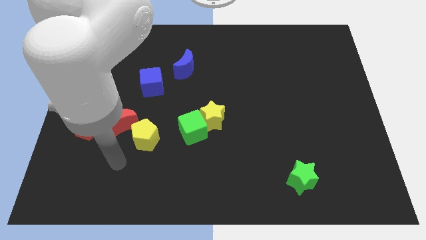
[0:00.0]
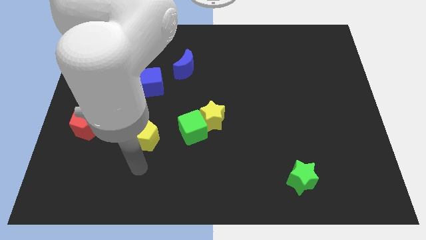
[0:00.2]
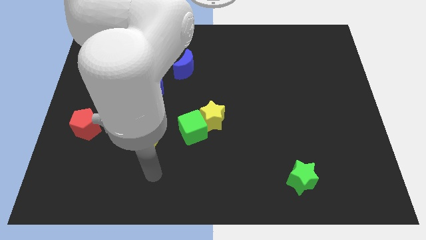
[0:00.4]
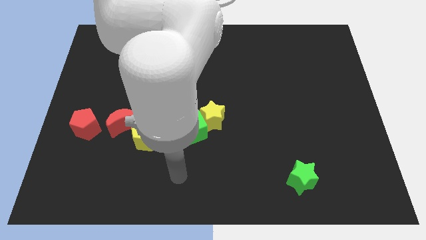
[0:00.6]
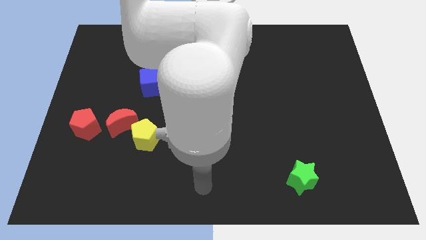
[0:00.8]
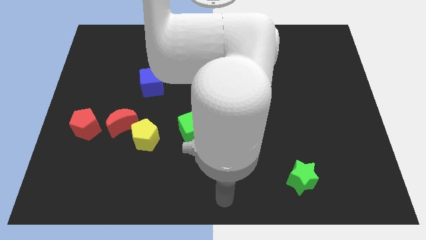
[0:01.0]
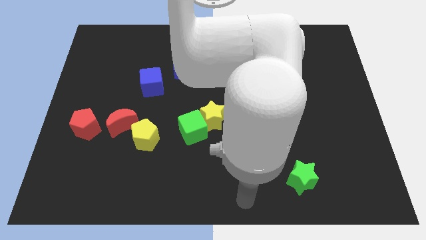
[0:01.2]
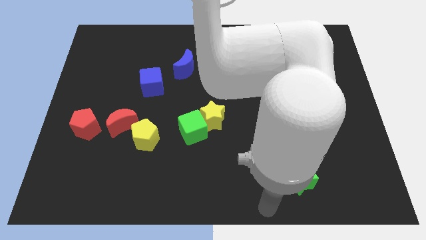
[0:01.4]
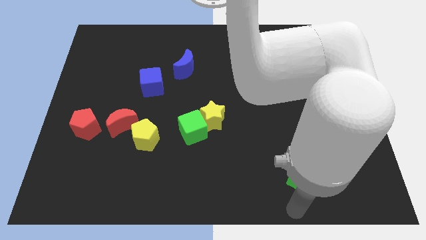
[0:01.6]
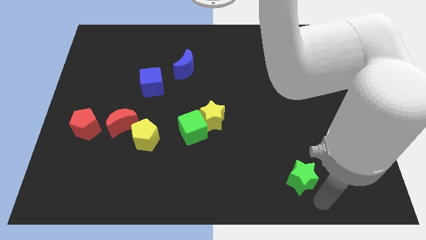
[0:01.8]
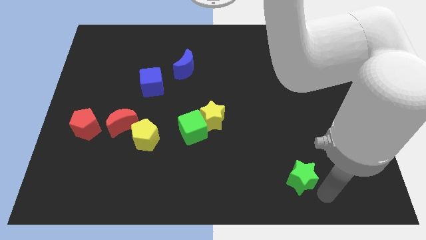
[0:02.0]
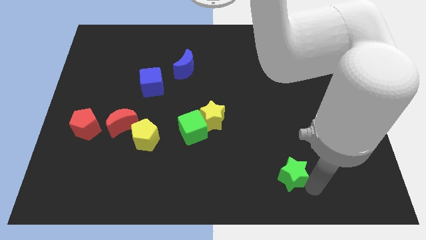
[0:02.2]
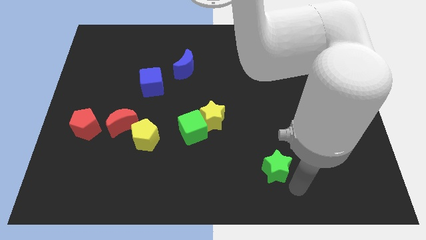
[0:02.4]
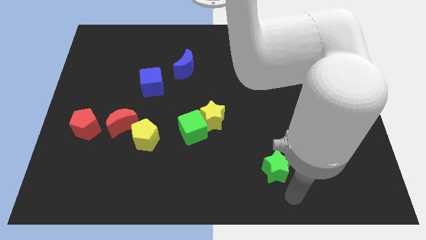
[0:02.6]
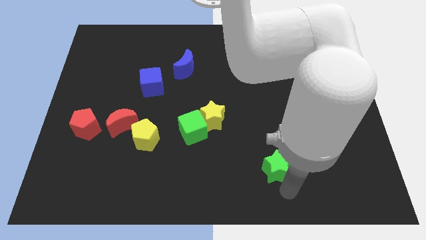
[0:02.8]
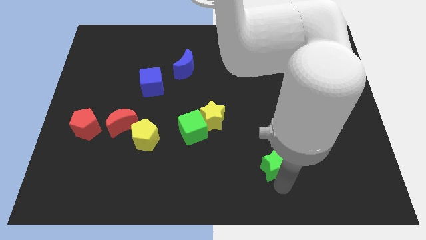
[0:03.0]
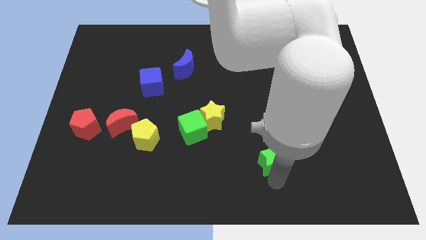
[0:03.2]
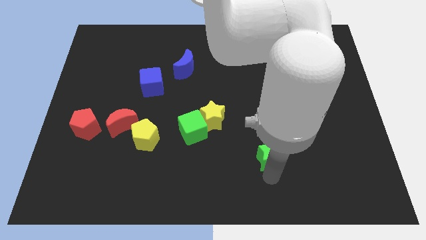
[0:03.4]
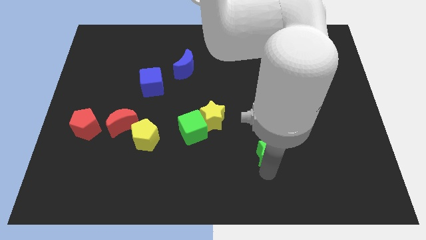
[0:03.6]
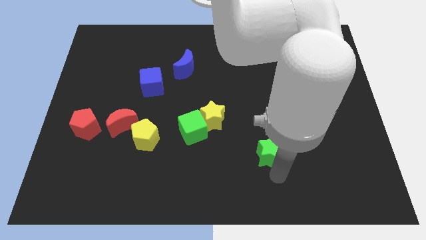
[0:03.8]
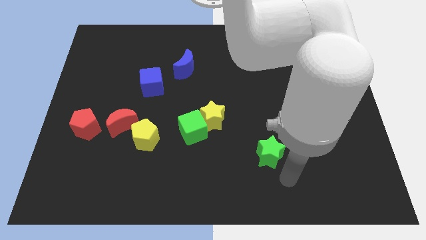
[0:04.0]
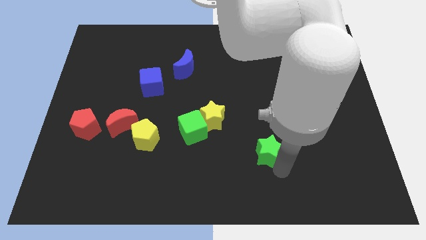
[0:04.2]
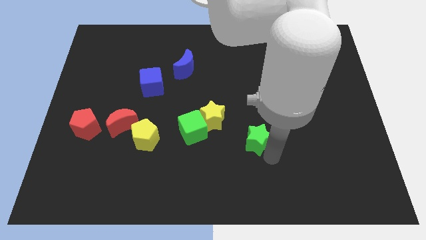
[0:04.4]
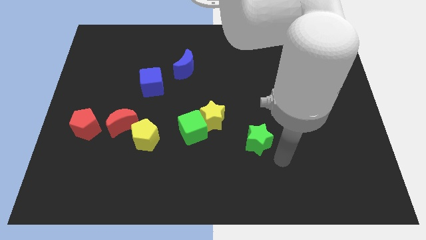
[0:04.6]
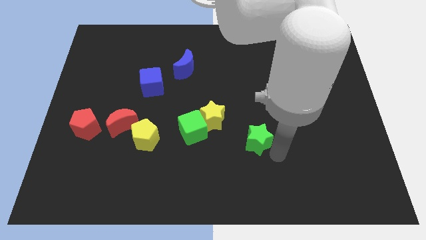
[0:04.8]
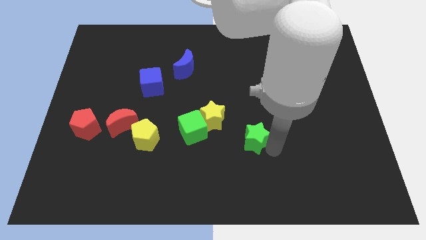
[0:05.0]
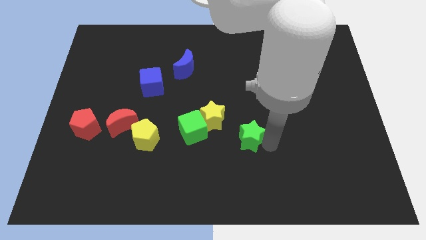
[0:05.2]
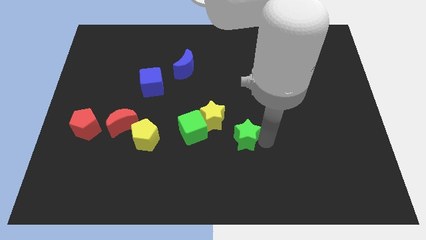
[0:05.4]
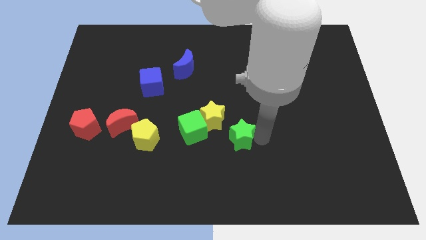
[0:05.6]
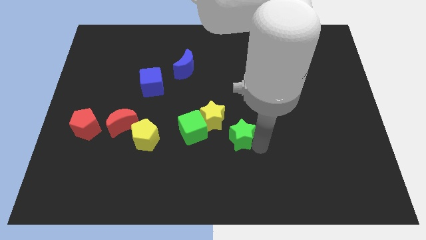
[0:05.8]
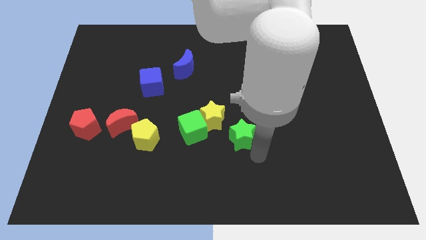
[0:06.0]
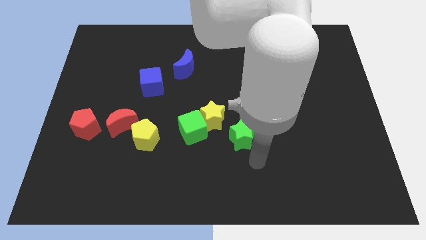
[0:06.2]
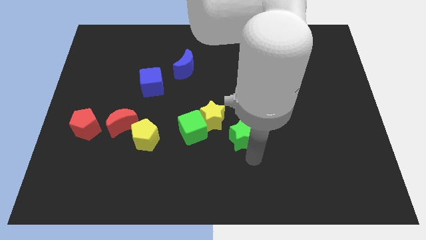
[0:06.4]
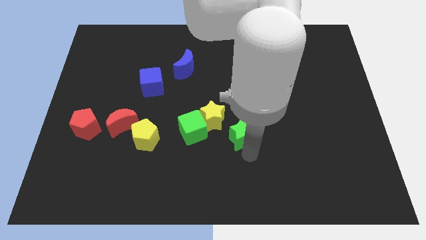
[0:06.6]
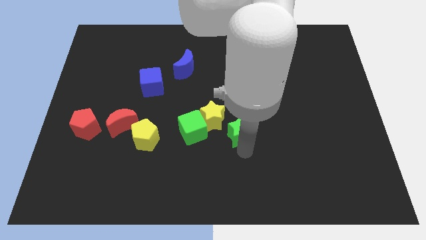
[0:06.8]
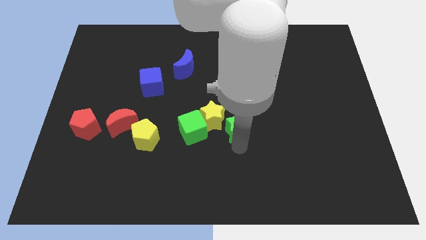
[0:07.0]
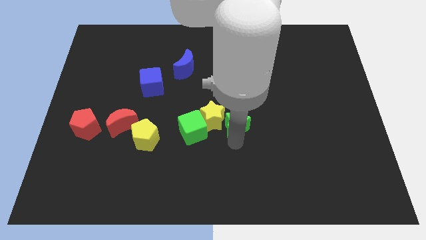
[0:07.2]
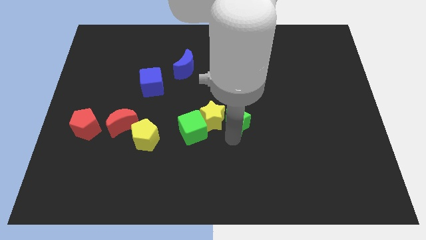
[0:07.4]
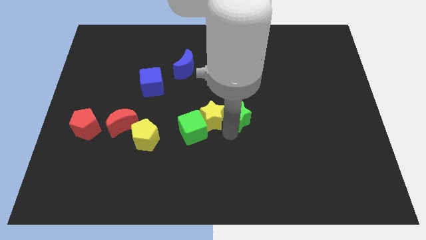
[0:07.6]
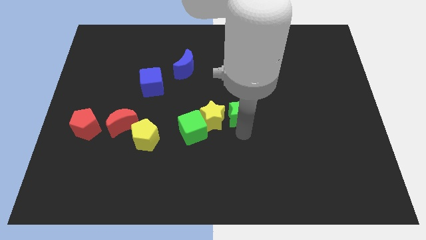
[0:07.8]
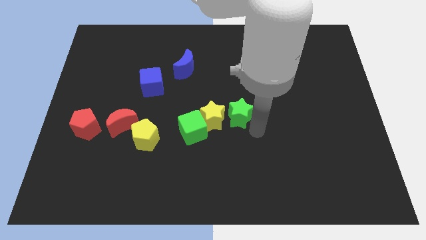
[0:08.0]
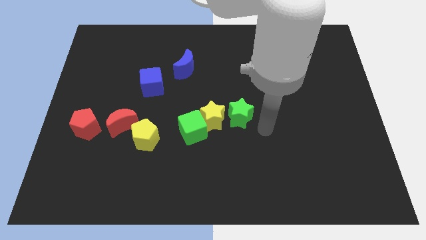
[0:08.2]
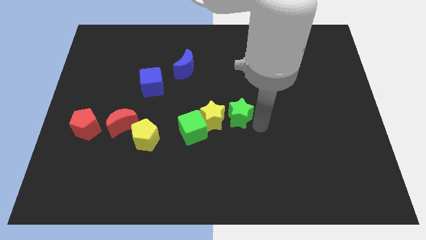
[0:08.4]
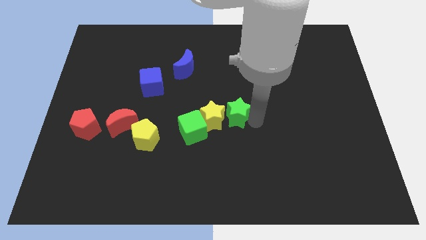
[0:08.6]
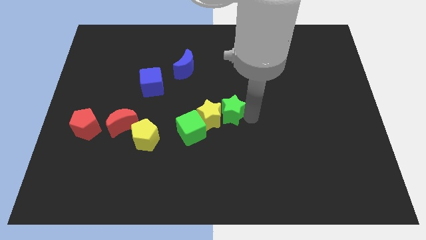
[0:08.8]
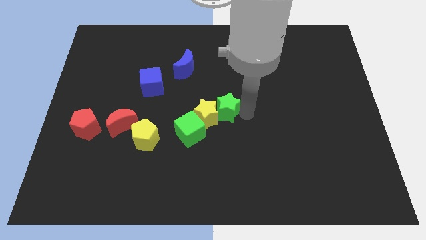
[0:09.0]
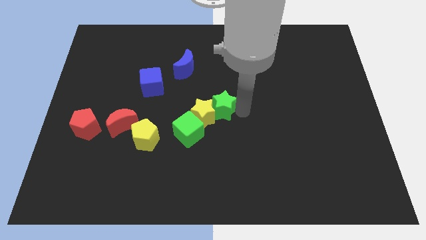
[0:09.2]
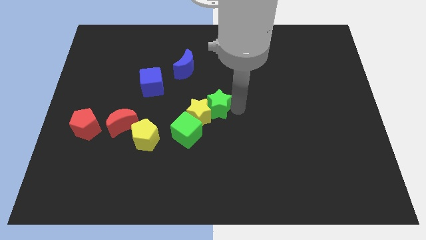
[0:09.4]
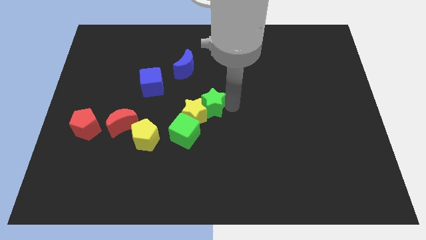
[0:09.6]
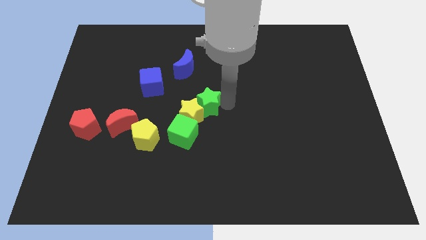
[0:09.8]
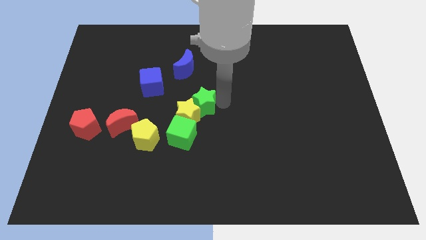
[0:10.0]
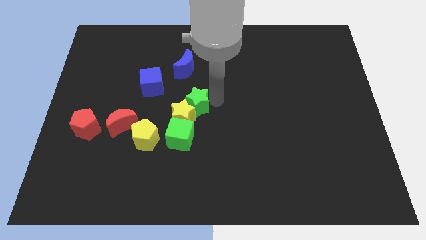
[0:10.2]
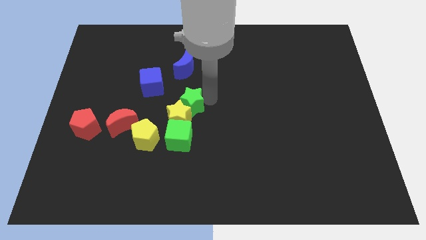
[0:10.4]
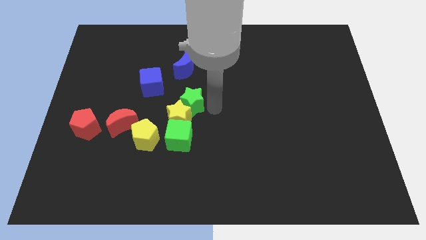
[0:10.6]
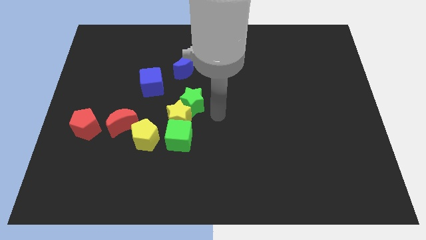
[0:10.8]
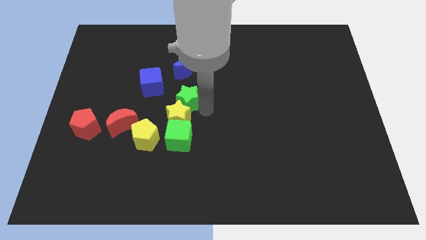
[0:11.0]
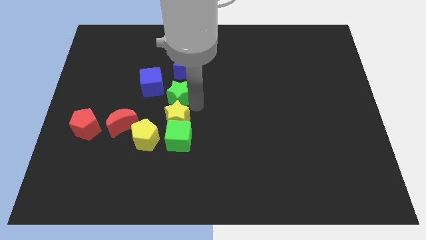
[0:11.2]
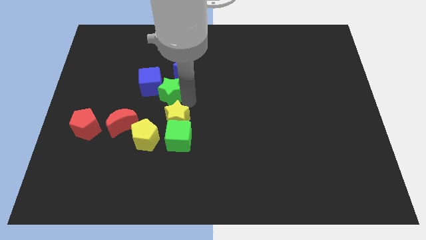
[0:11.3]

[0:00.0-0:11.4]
slide the green star to the blue cube

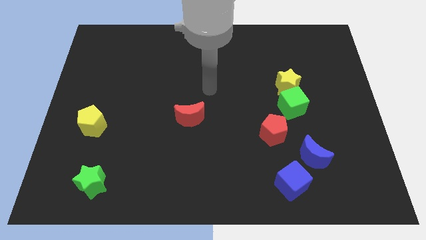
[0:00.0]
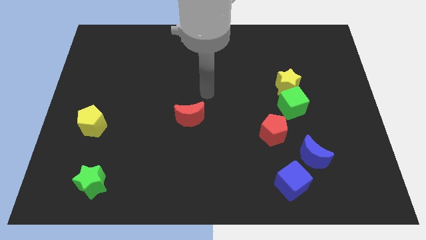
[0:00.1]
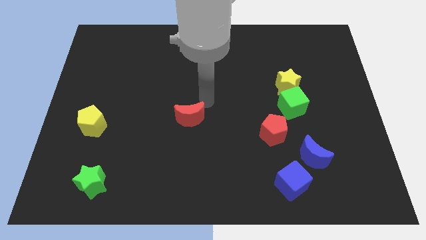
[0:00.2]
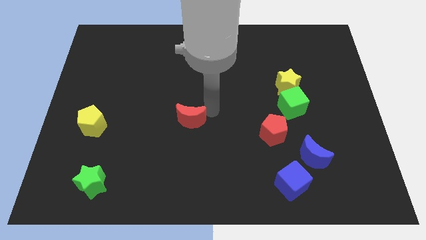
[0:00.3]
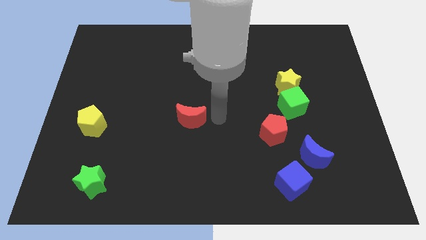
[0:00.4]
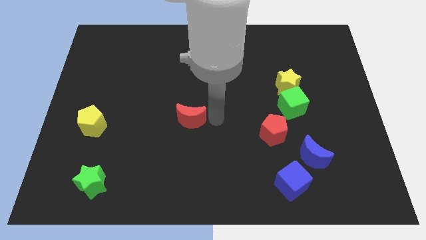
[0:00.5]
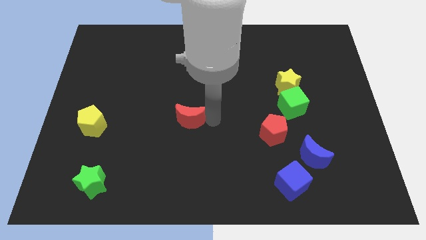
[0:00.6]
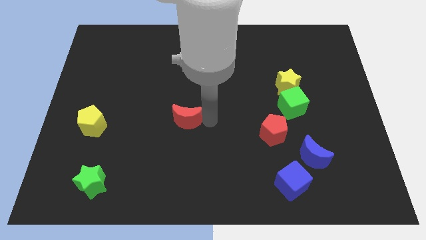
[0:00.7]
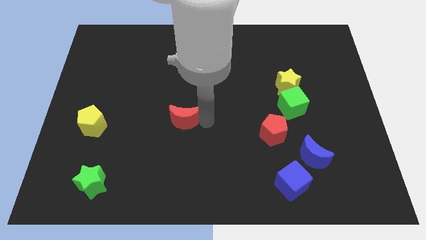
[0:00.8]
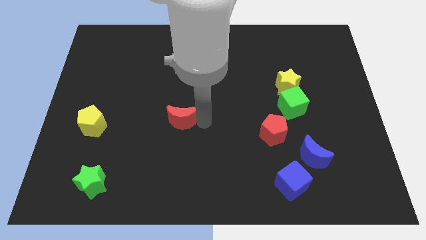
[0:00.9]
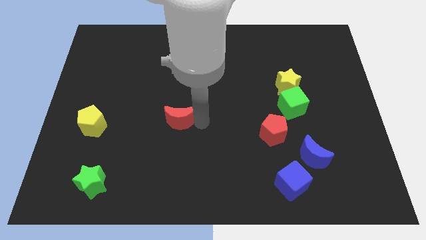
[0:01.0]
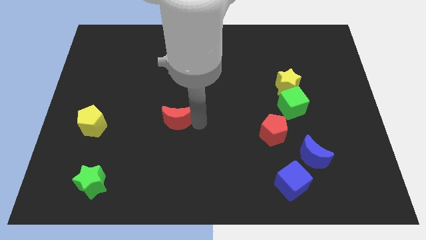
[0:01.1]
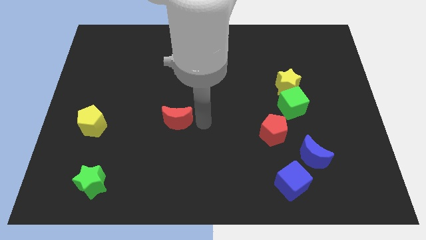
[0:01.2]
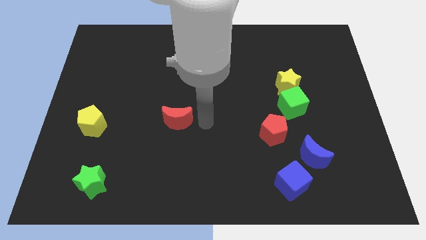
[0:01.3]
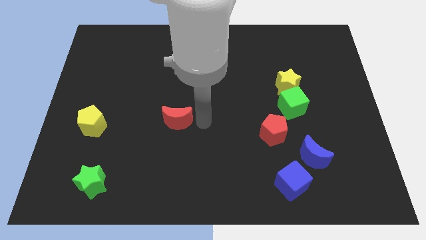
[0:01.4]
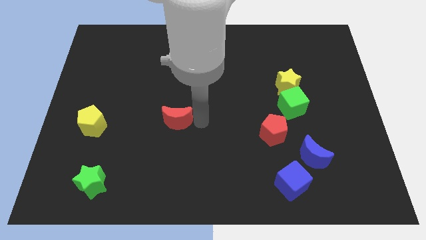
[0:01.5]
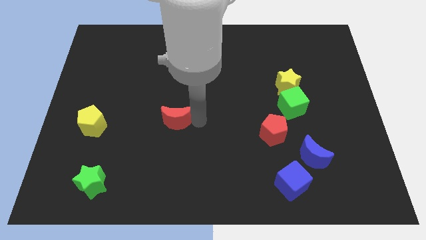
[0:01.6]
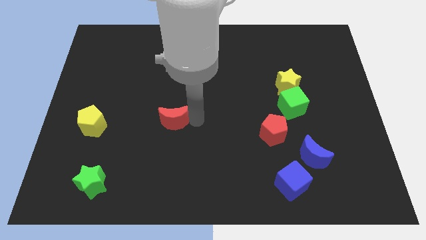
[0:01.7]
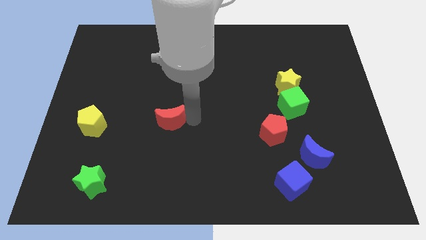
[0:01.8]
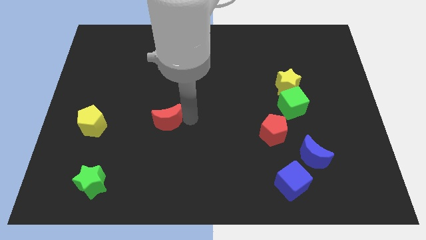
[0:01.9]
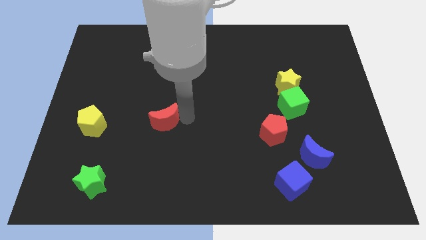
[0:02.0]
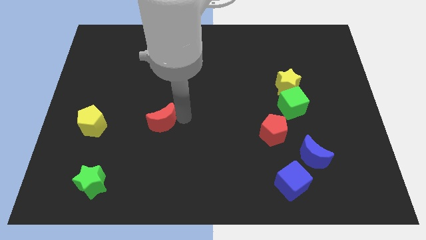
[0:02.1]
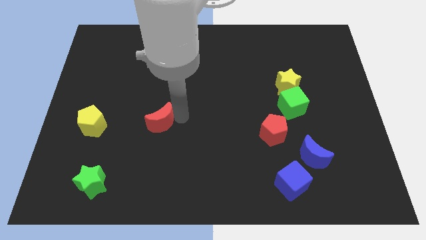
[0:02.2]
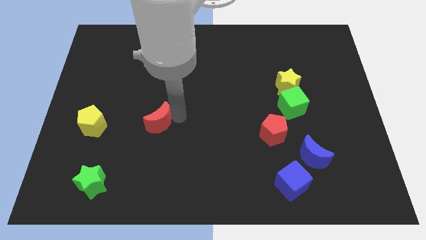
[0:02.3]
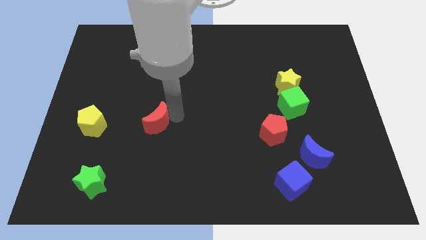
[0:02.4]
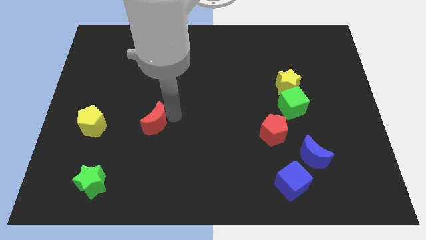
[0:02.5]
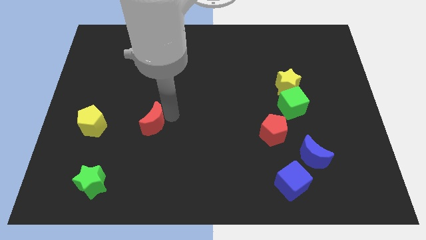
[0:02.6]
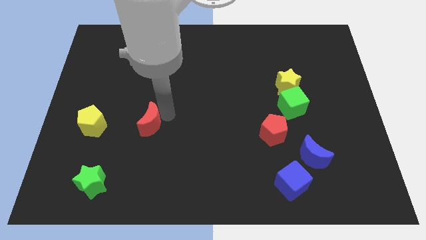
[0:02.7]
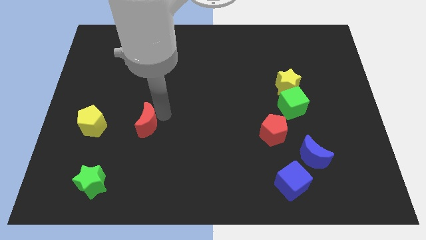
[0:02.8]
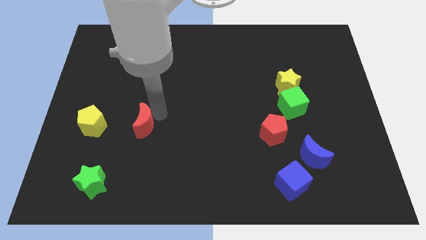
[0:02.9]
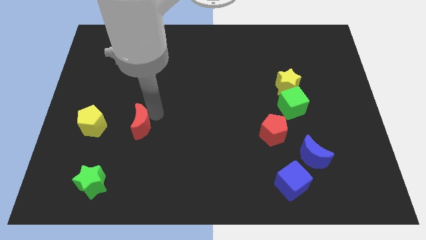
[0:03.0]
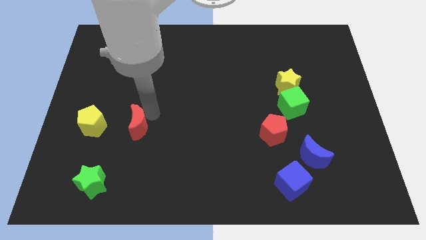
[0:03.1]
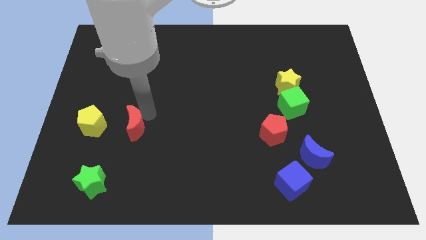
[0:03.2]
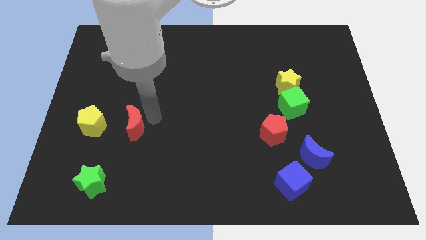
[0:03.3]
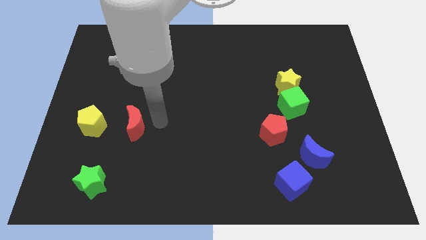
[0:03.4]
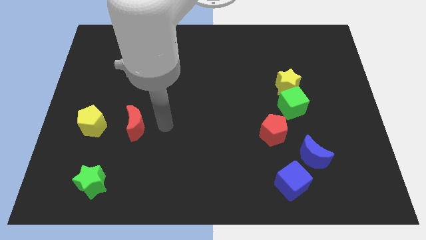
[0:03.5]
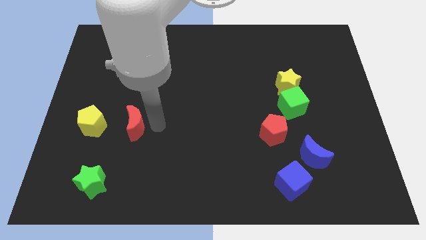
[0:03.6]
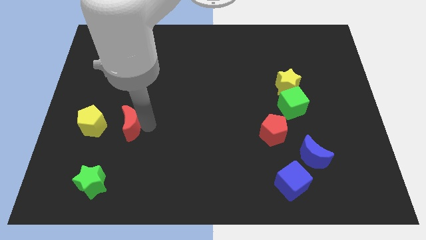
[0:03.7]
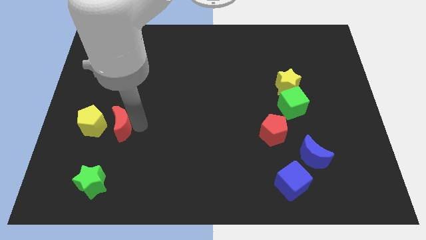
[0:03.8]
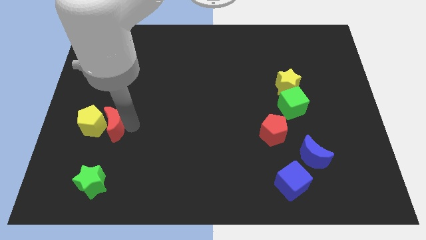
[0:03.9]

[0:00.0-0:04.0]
push the red moon close to the yellow pentagon
